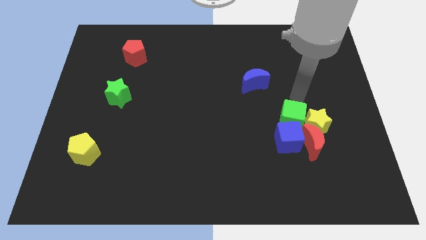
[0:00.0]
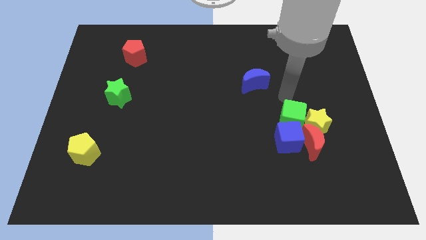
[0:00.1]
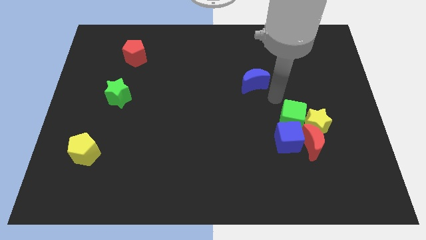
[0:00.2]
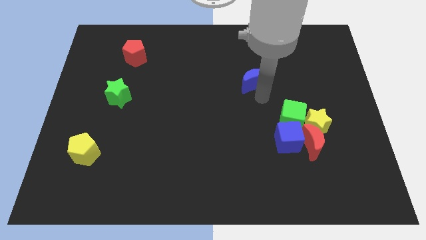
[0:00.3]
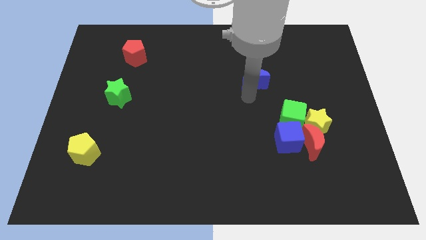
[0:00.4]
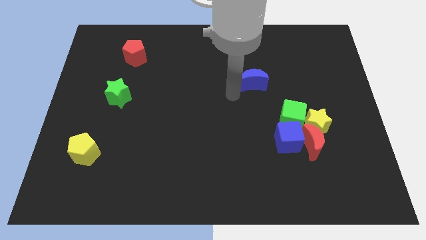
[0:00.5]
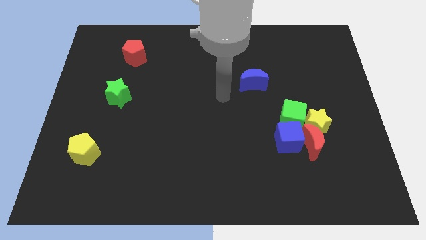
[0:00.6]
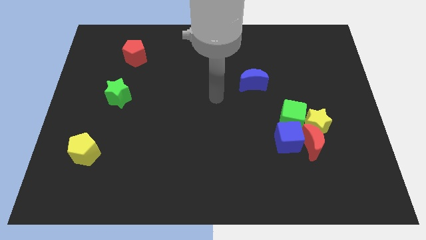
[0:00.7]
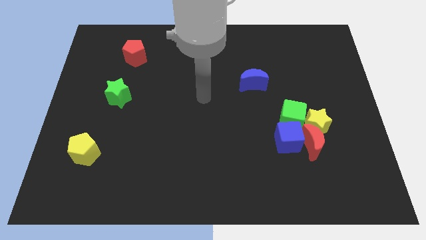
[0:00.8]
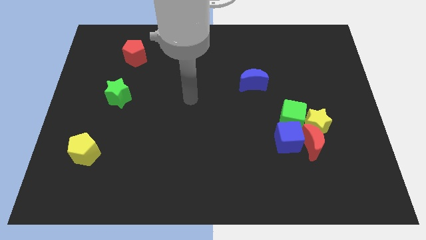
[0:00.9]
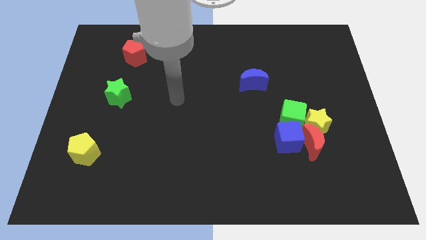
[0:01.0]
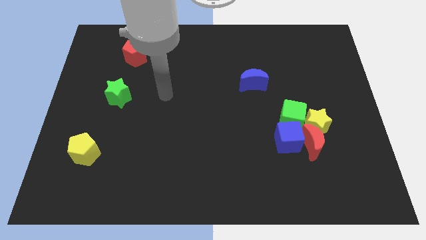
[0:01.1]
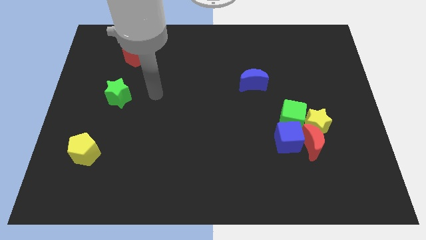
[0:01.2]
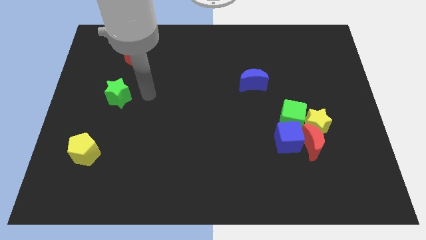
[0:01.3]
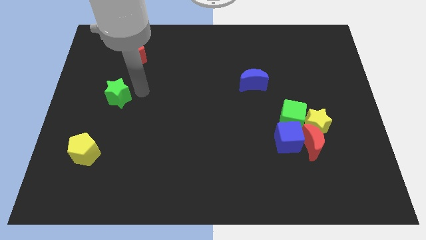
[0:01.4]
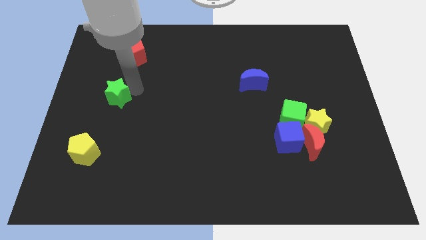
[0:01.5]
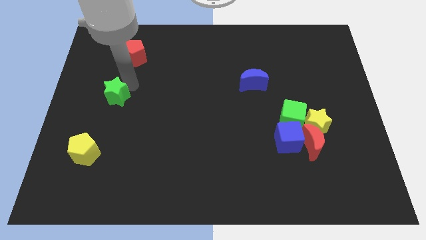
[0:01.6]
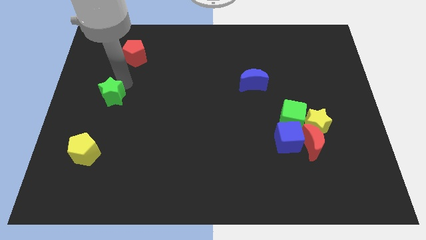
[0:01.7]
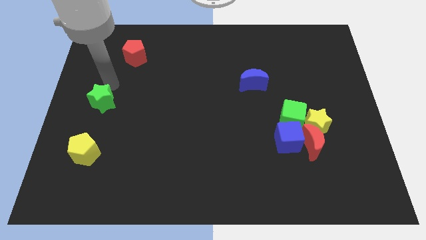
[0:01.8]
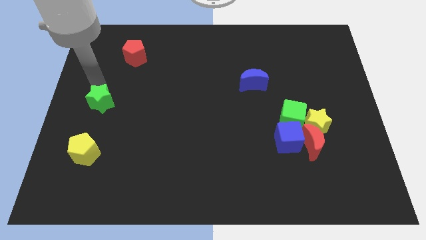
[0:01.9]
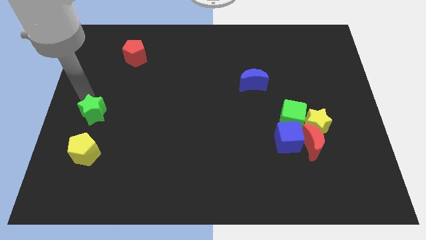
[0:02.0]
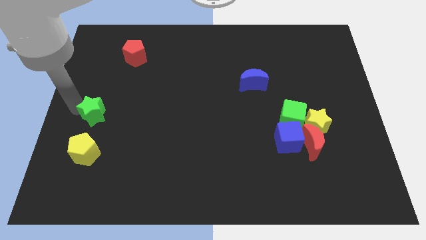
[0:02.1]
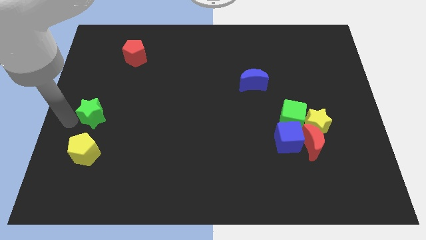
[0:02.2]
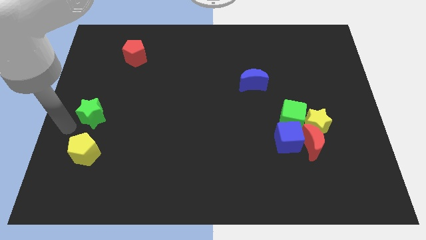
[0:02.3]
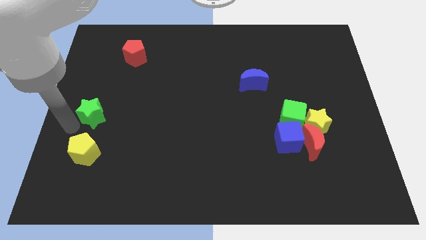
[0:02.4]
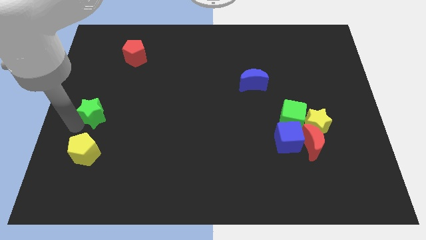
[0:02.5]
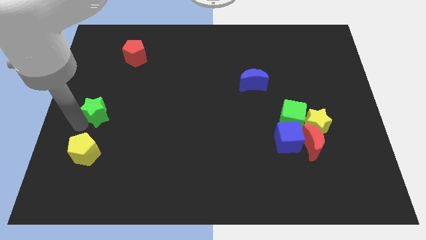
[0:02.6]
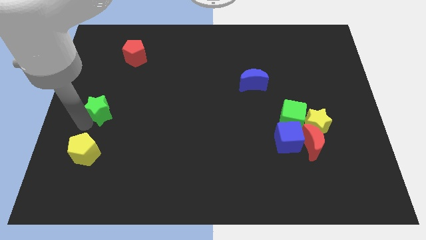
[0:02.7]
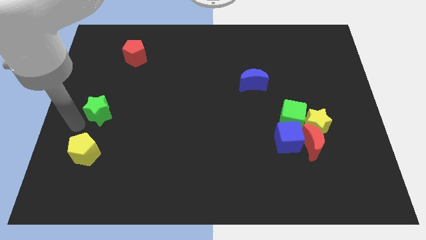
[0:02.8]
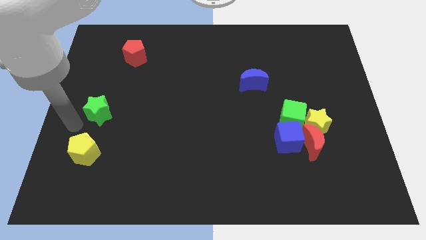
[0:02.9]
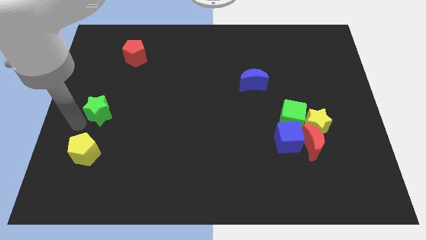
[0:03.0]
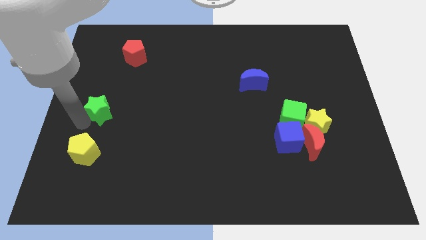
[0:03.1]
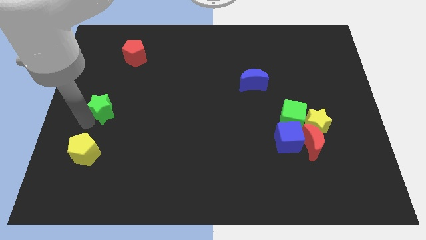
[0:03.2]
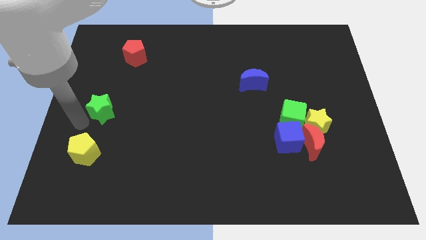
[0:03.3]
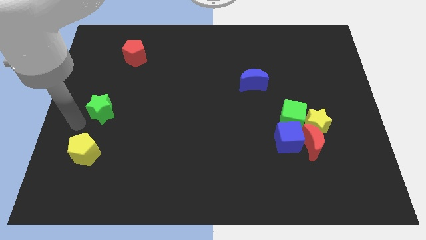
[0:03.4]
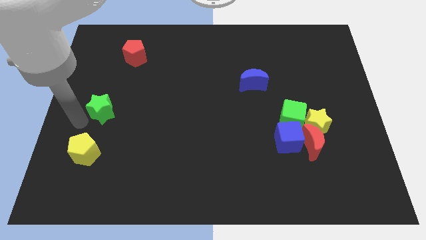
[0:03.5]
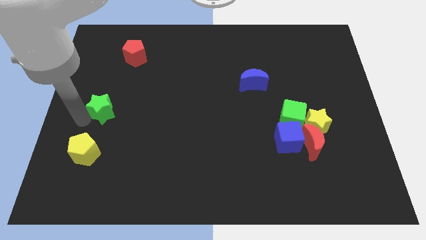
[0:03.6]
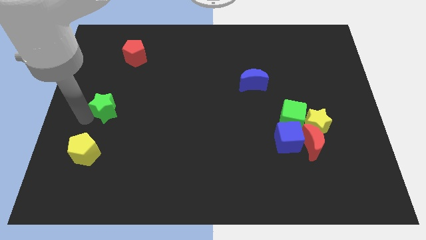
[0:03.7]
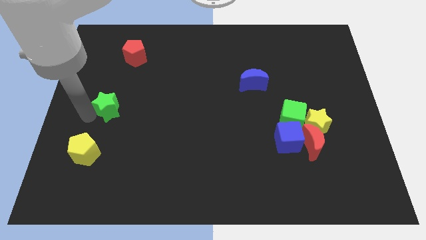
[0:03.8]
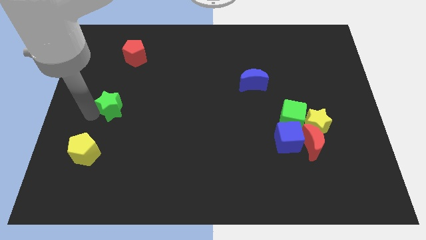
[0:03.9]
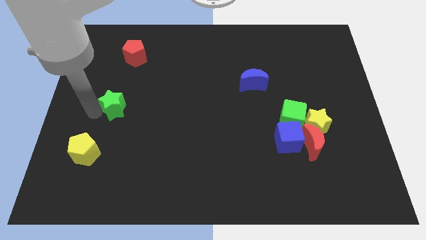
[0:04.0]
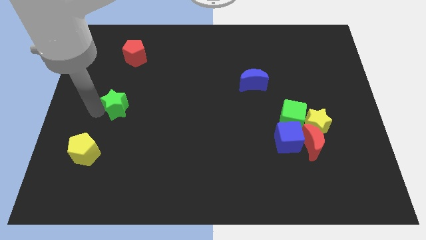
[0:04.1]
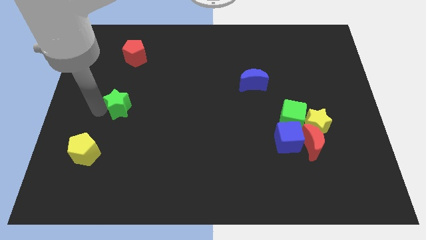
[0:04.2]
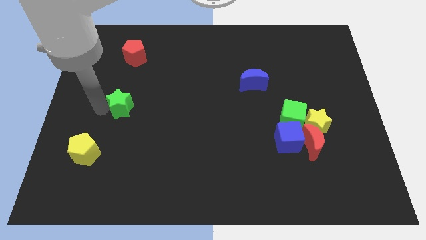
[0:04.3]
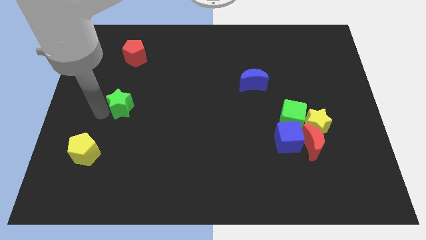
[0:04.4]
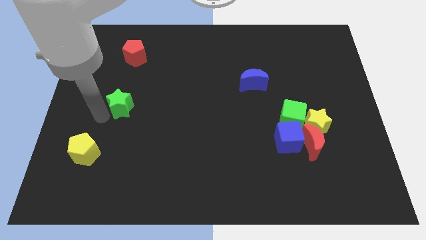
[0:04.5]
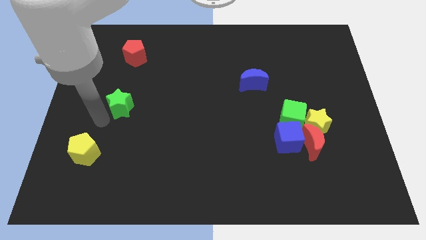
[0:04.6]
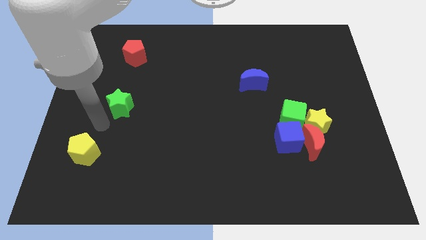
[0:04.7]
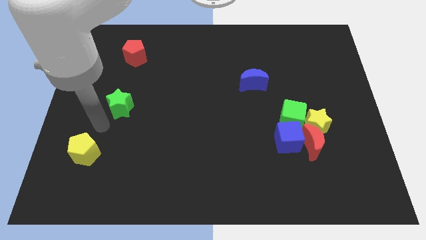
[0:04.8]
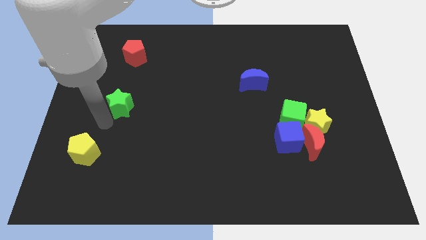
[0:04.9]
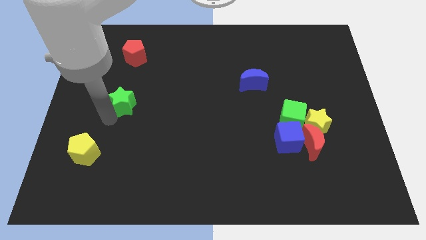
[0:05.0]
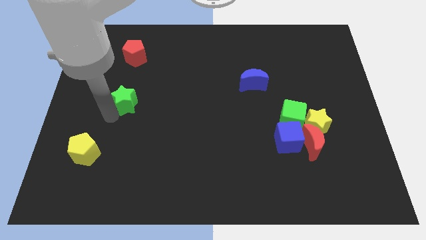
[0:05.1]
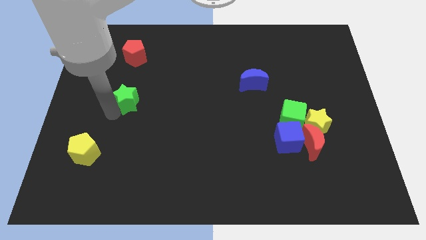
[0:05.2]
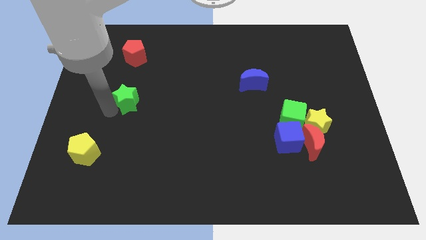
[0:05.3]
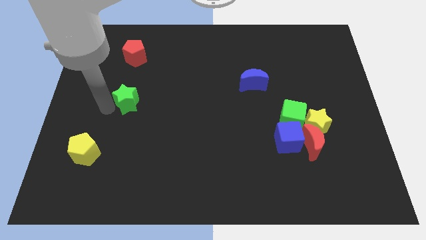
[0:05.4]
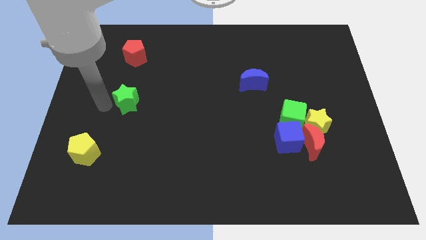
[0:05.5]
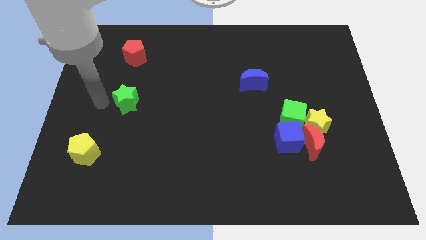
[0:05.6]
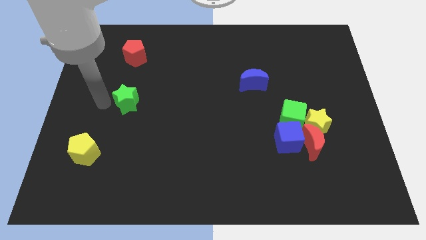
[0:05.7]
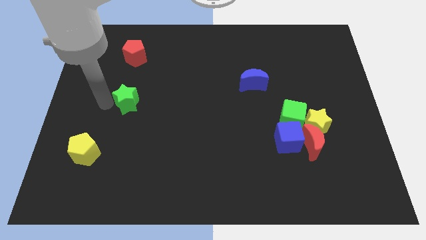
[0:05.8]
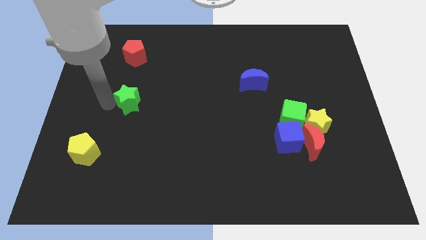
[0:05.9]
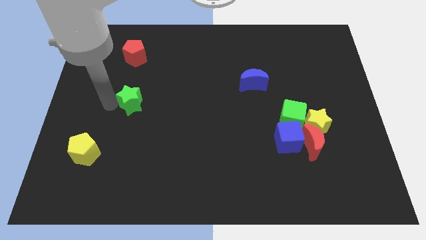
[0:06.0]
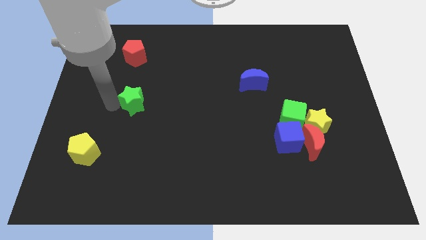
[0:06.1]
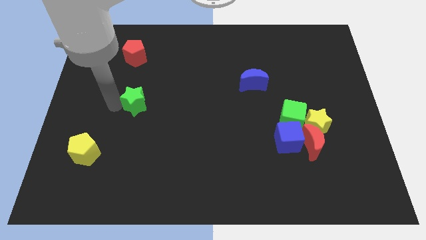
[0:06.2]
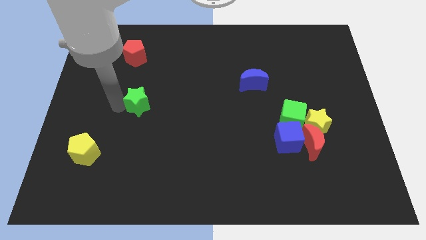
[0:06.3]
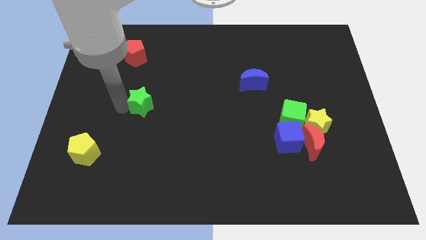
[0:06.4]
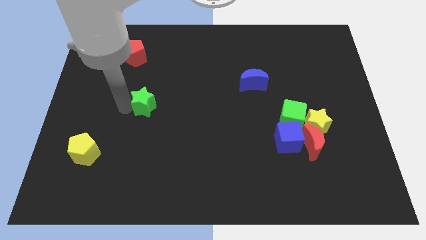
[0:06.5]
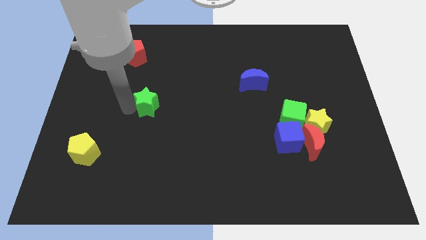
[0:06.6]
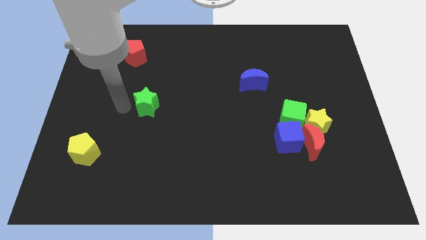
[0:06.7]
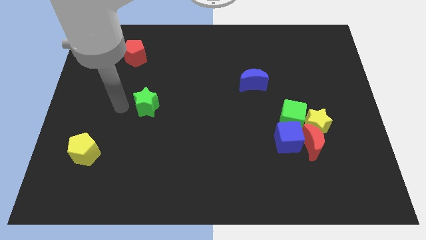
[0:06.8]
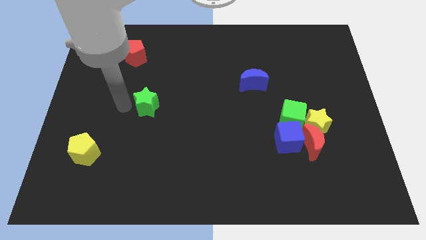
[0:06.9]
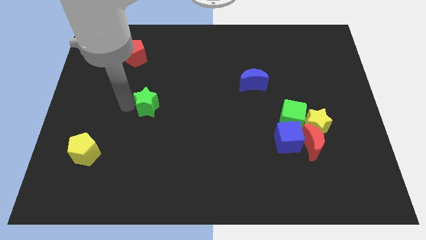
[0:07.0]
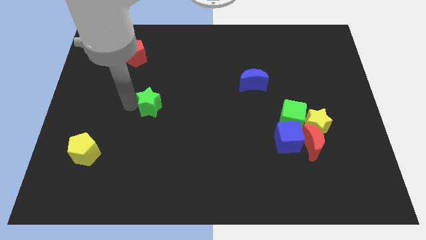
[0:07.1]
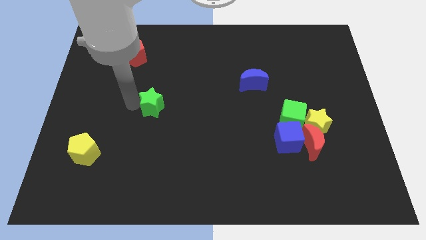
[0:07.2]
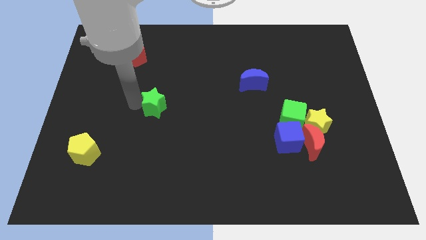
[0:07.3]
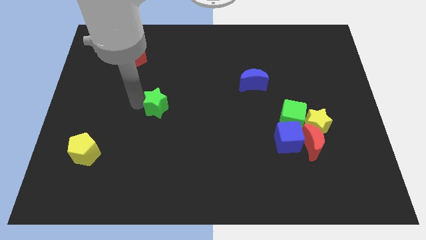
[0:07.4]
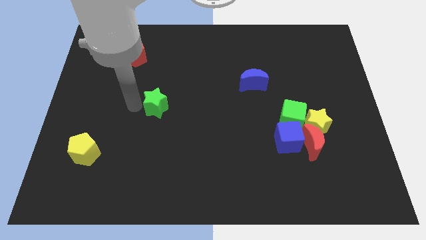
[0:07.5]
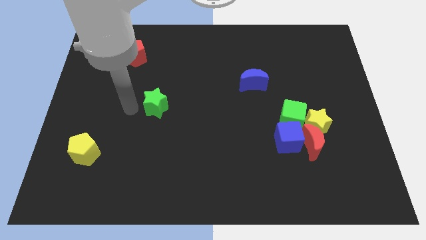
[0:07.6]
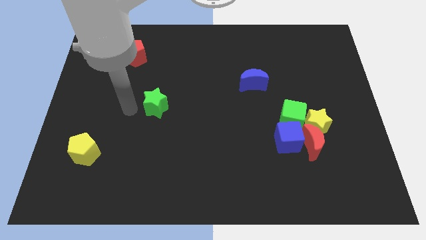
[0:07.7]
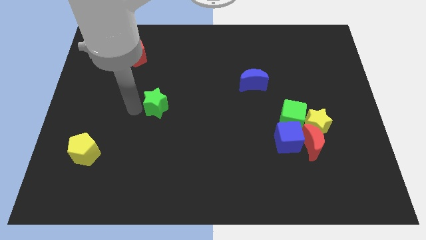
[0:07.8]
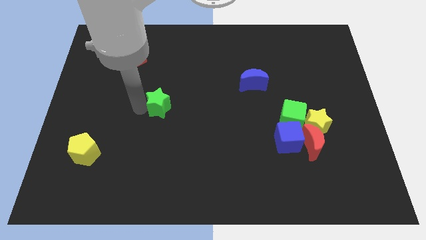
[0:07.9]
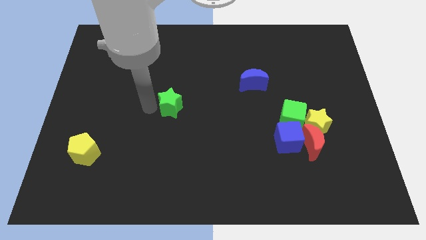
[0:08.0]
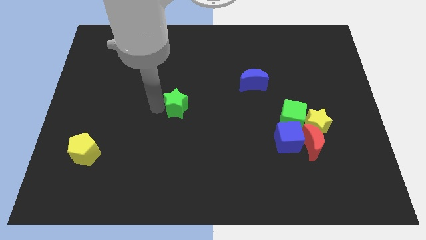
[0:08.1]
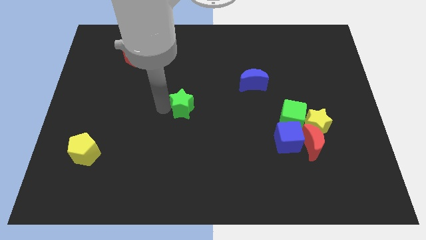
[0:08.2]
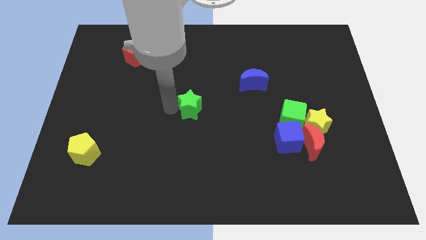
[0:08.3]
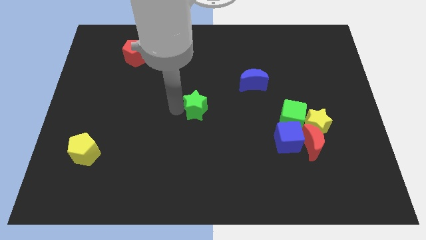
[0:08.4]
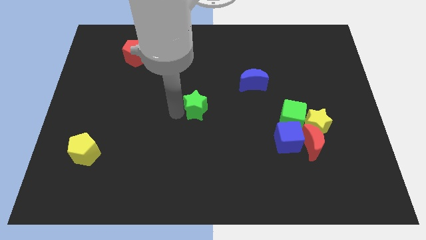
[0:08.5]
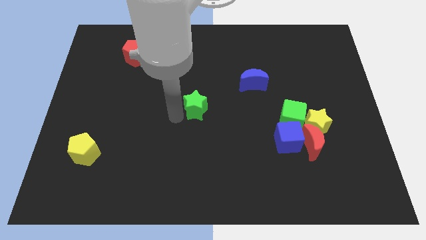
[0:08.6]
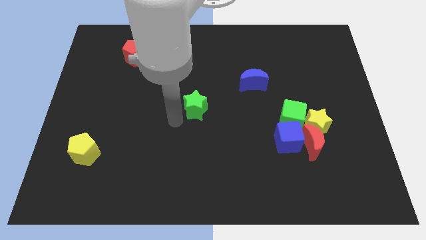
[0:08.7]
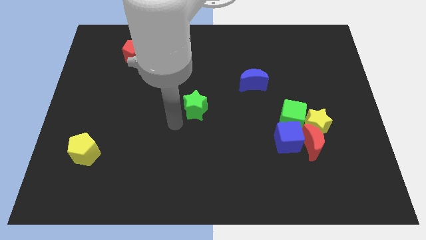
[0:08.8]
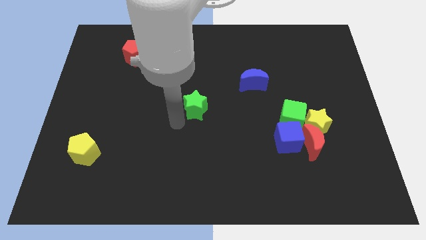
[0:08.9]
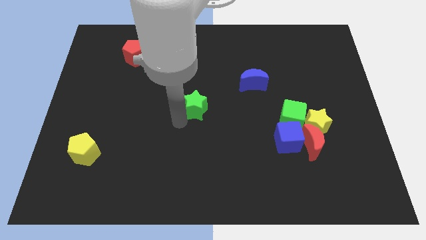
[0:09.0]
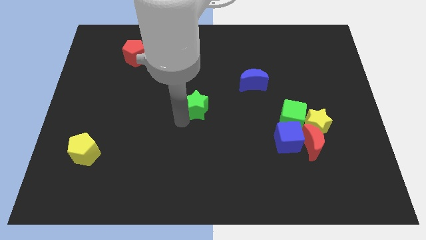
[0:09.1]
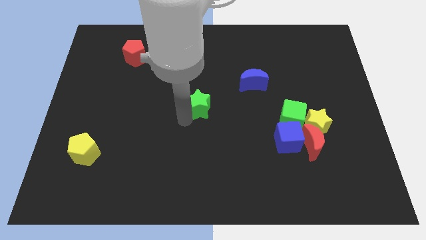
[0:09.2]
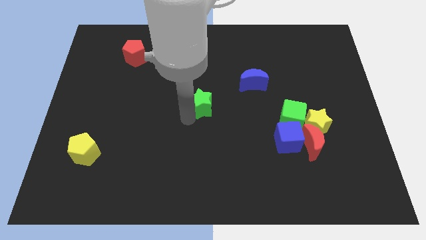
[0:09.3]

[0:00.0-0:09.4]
move the green star to the right
